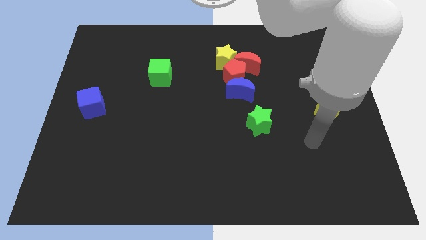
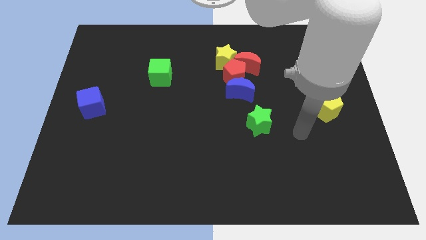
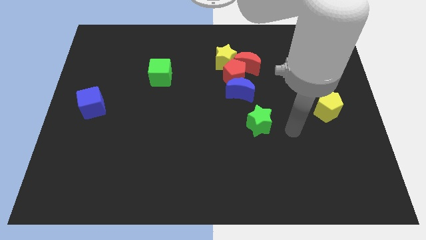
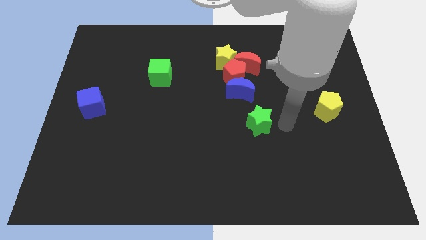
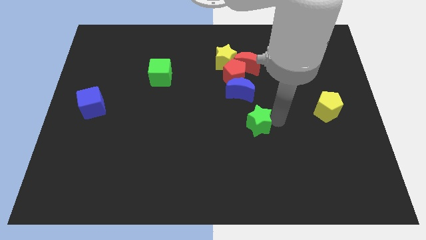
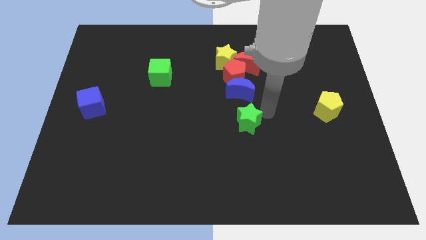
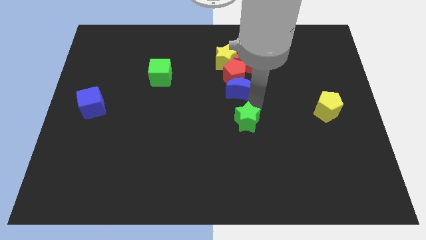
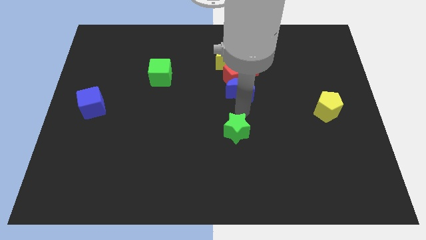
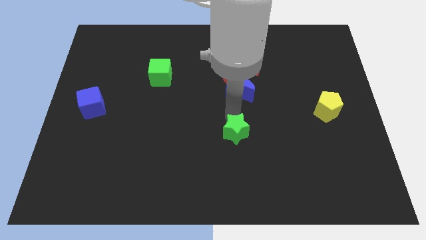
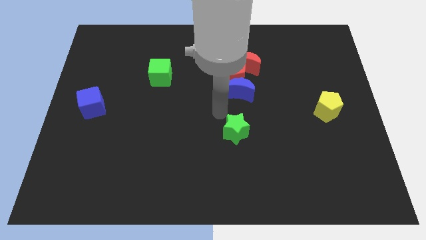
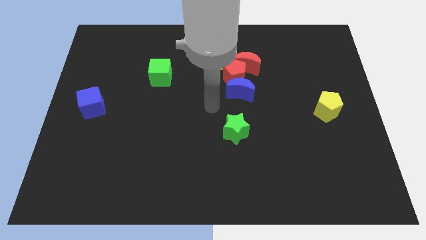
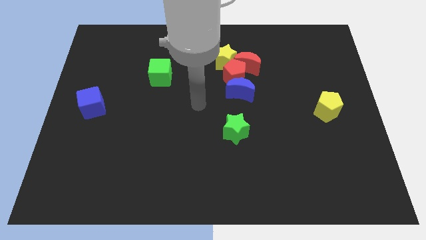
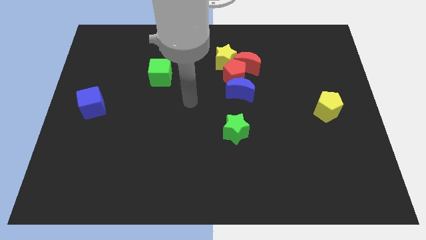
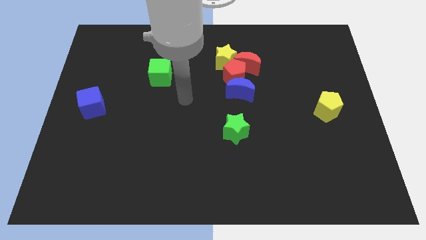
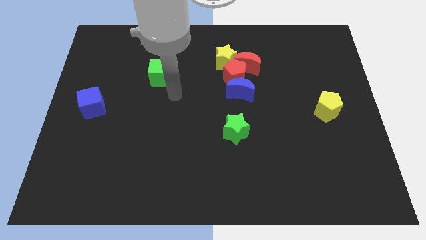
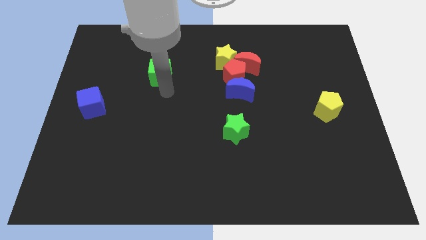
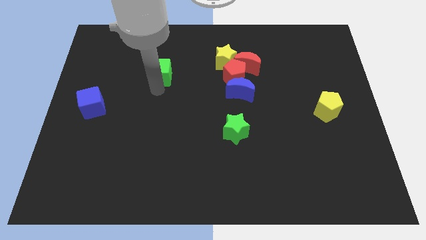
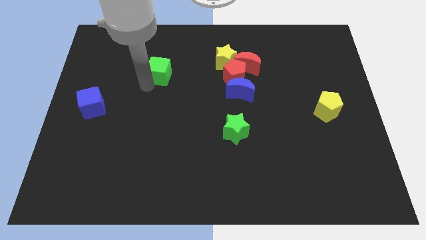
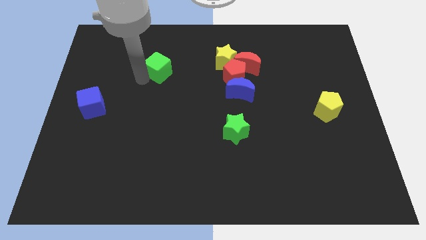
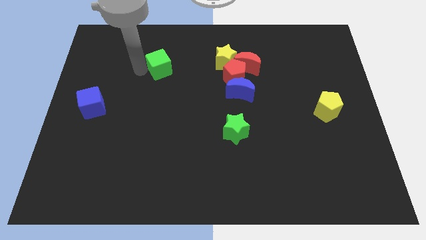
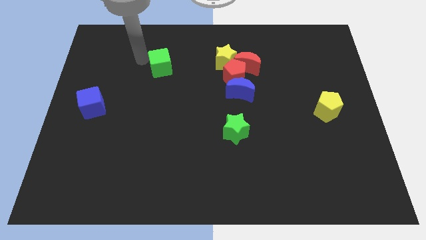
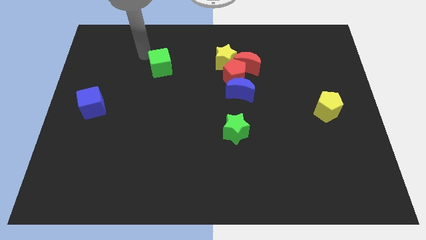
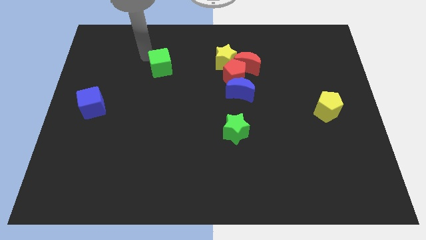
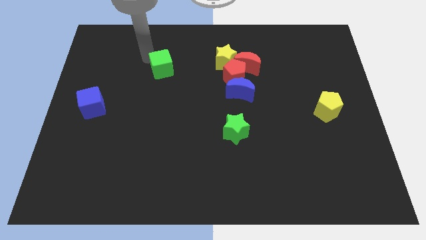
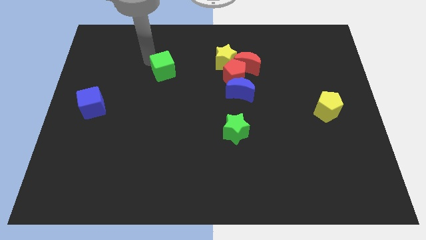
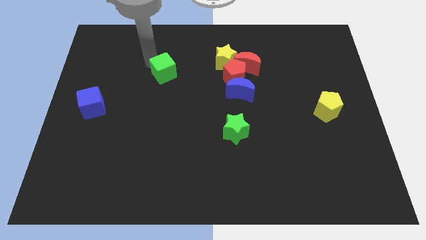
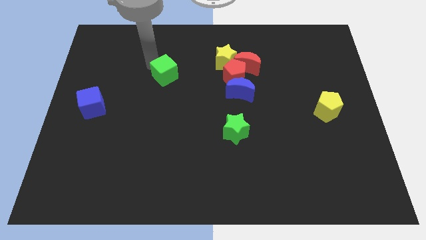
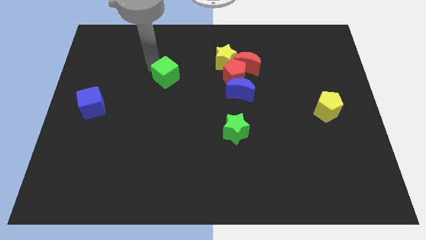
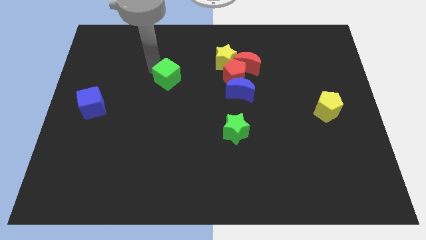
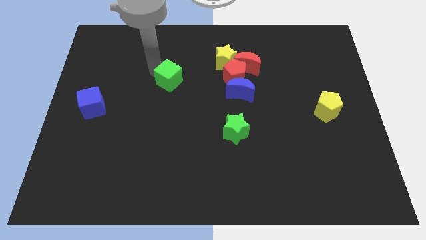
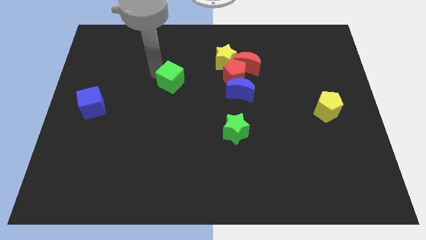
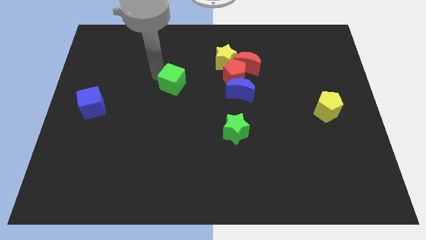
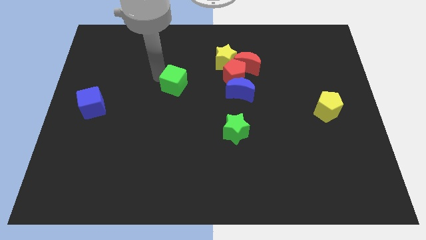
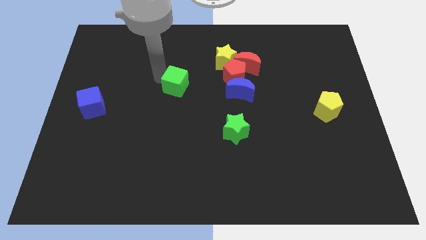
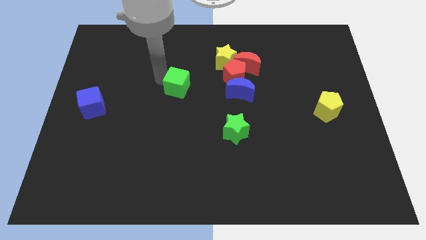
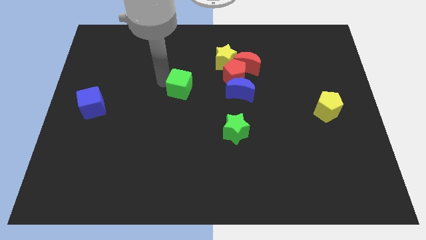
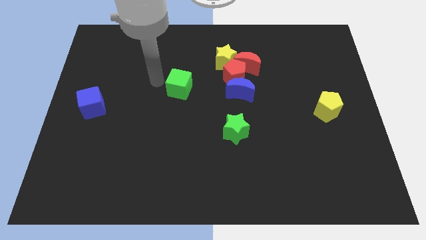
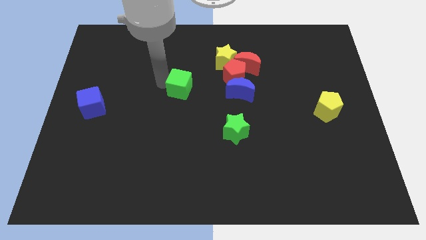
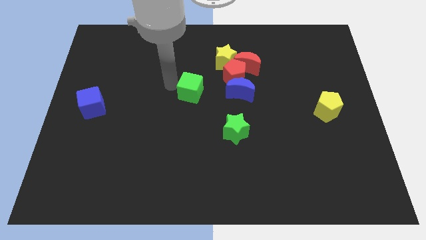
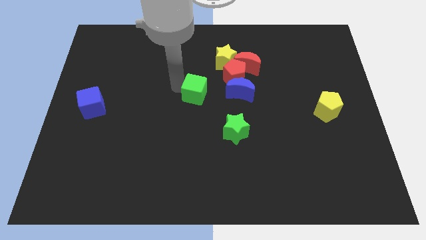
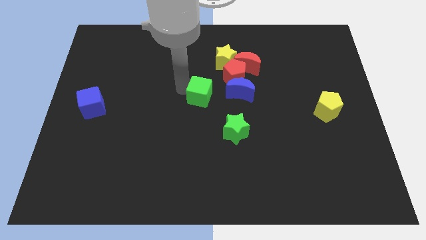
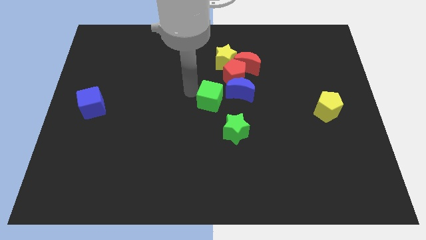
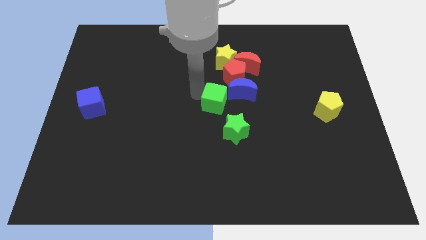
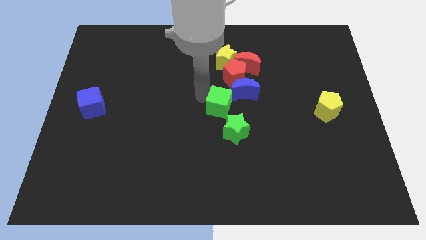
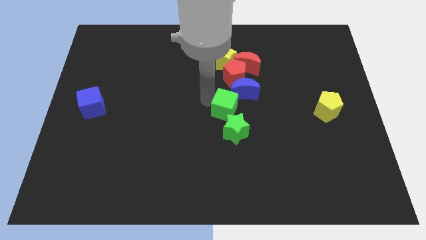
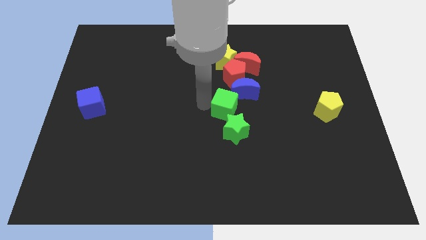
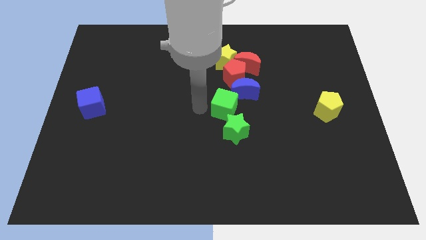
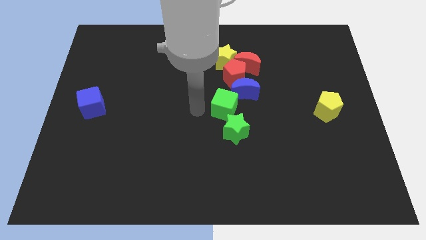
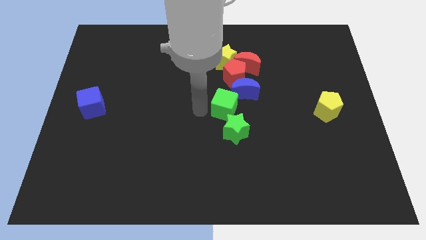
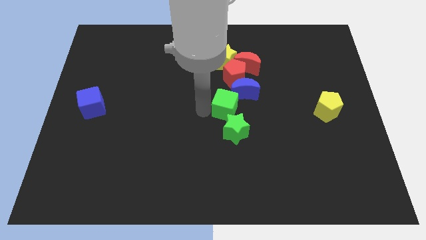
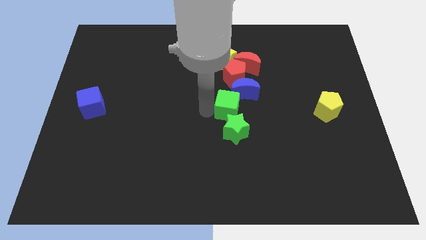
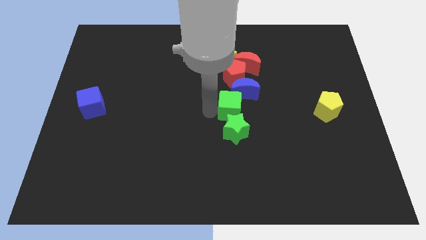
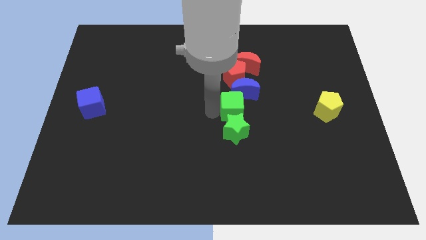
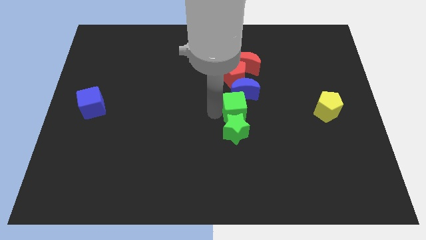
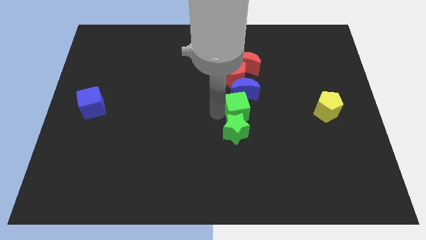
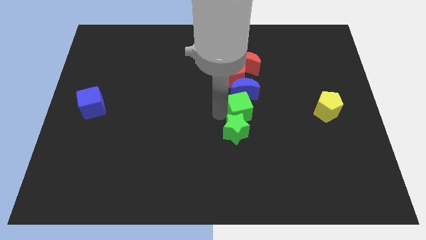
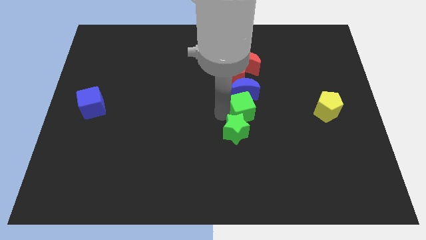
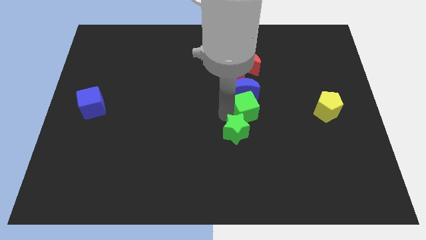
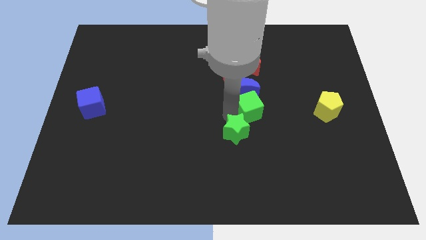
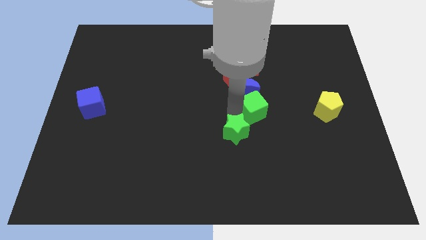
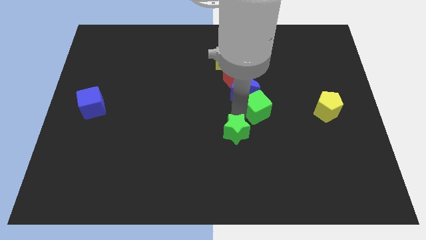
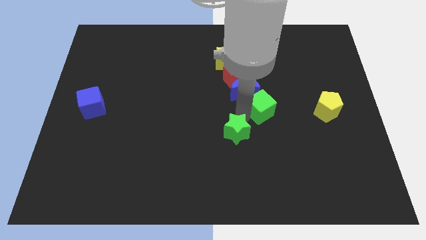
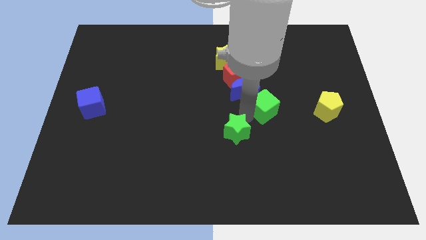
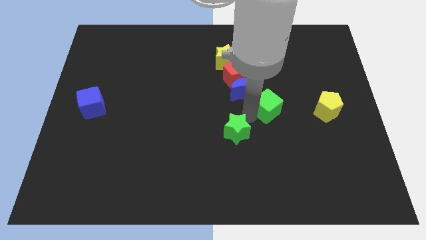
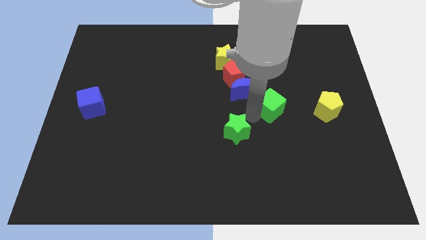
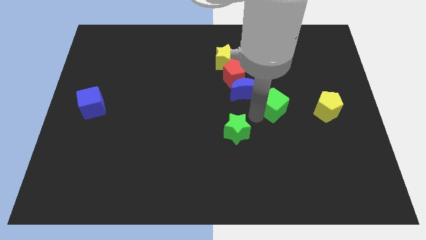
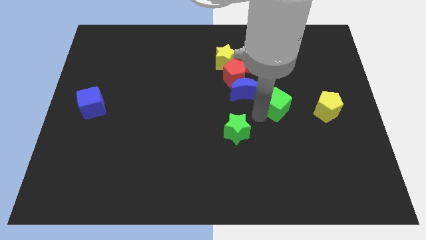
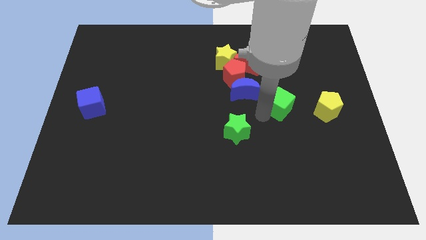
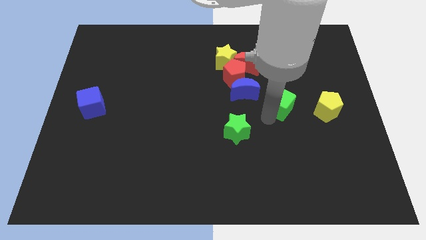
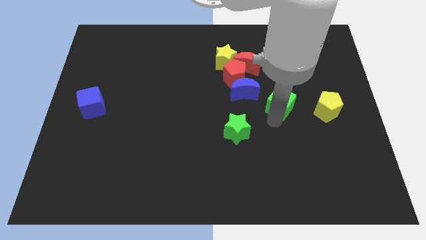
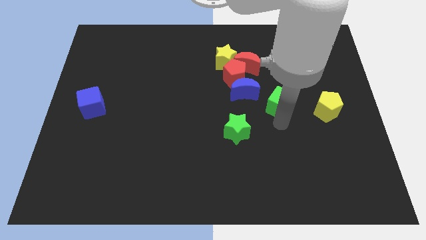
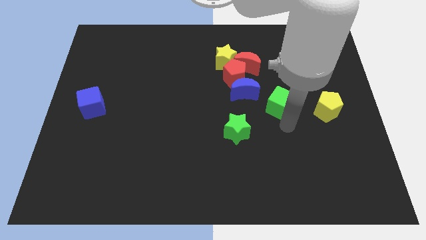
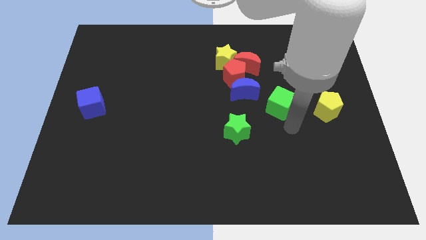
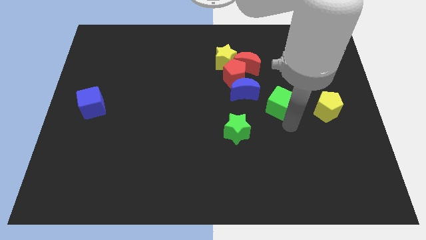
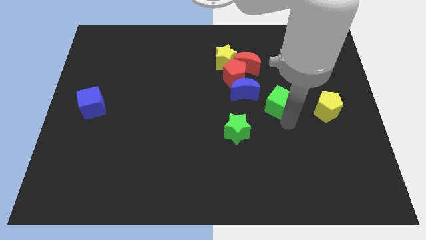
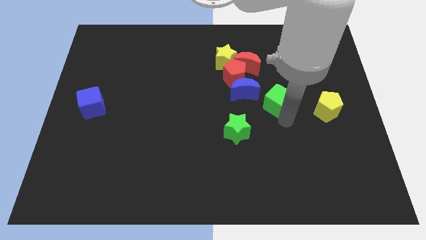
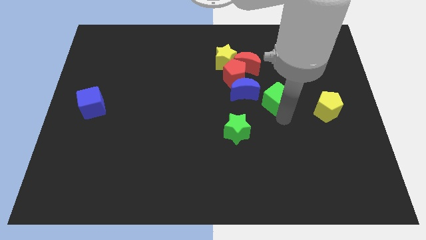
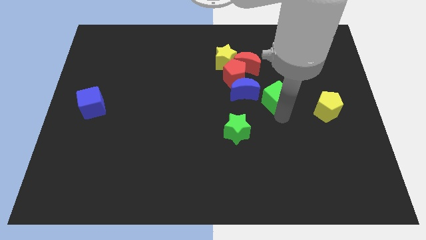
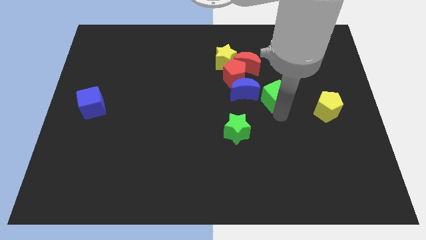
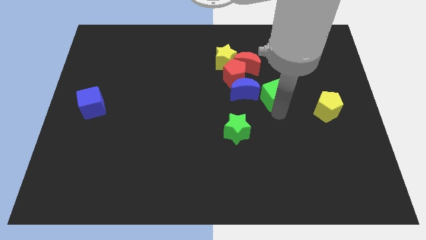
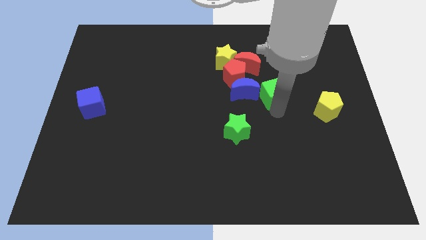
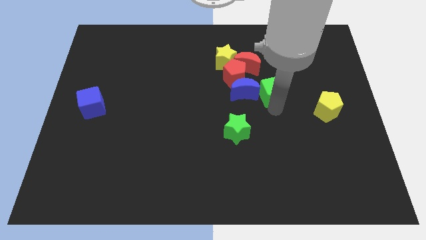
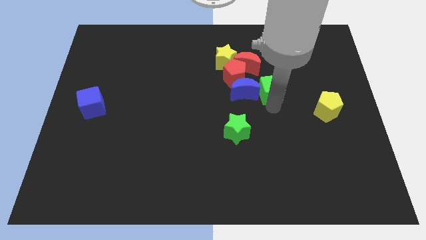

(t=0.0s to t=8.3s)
move the green cube to the top right side of the blue moon
